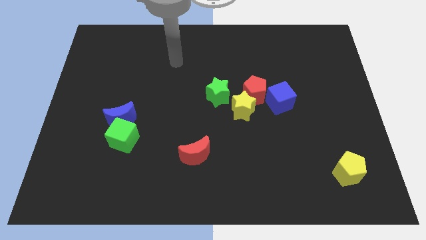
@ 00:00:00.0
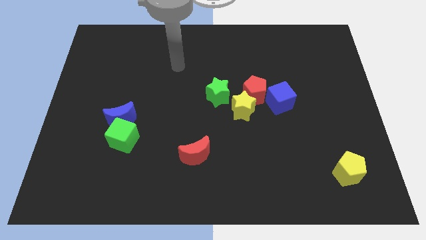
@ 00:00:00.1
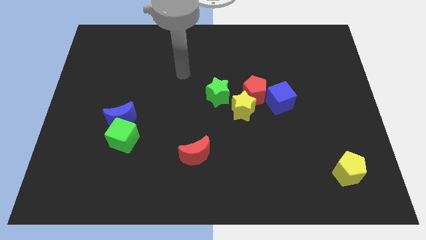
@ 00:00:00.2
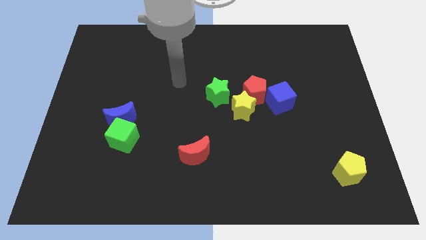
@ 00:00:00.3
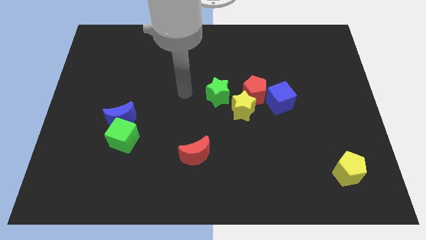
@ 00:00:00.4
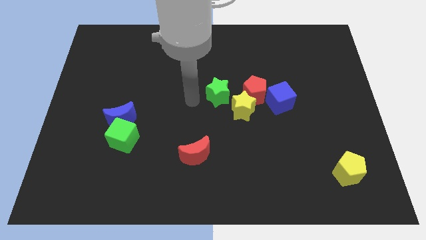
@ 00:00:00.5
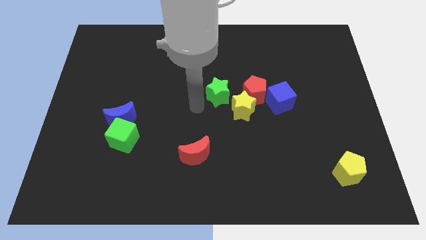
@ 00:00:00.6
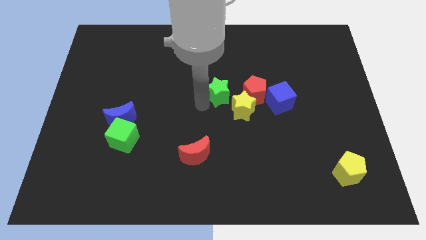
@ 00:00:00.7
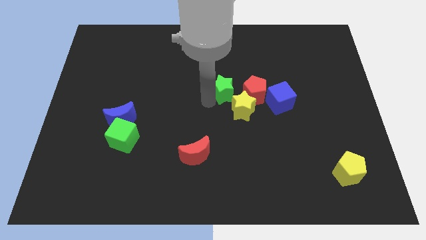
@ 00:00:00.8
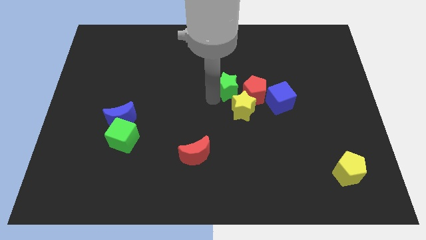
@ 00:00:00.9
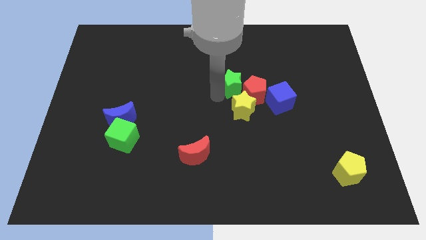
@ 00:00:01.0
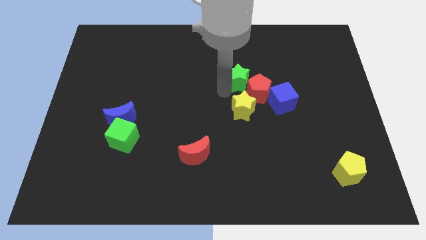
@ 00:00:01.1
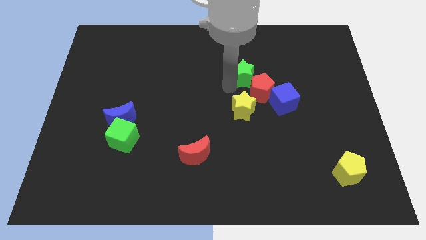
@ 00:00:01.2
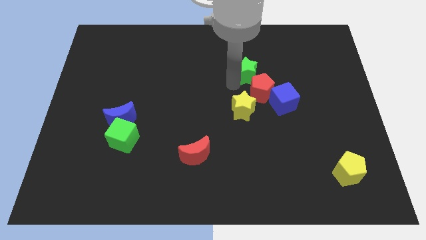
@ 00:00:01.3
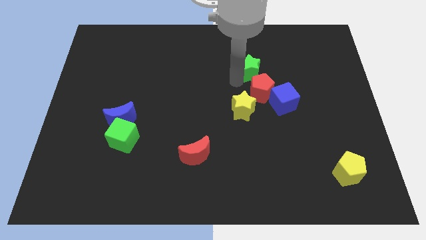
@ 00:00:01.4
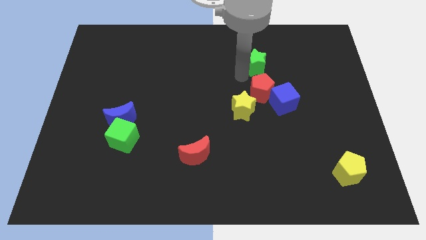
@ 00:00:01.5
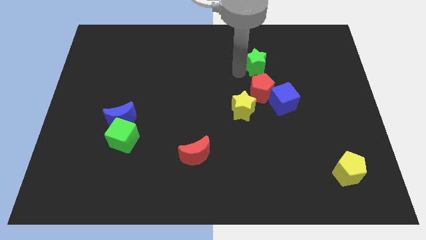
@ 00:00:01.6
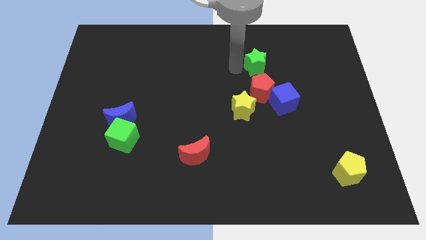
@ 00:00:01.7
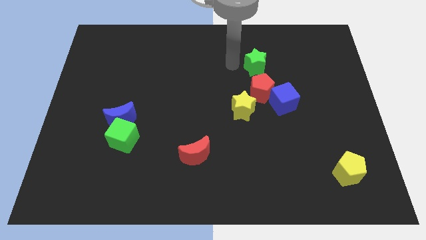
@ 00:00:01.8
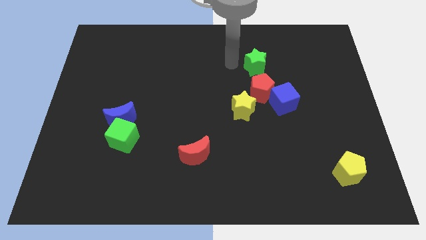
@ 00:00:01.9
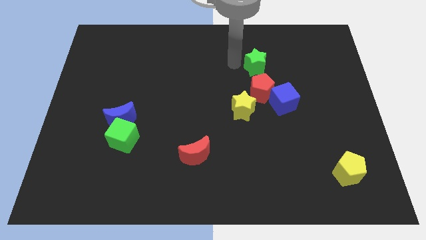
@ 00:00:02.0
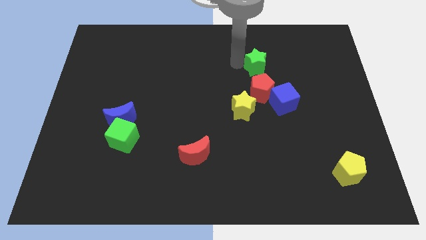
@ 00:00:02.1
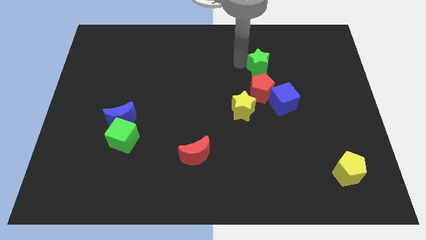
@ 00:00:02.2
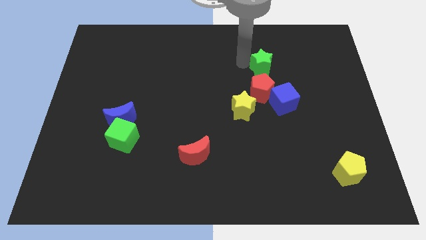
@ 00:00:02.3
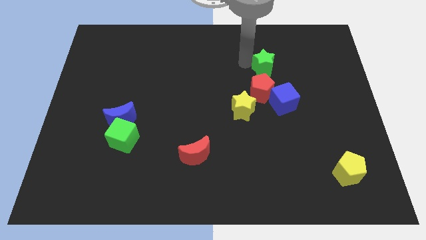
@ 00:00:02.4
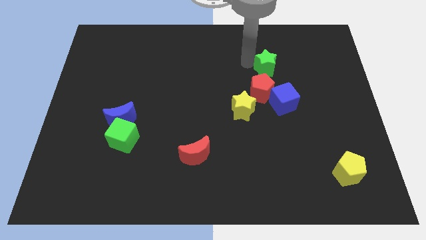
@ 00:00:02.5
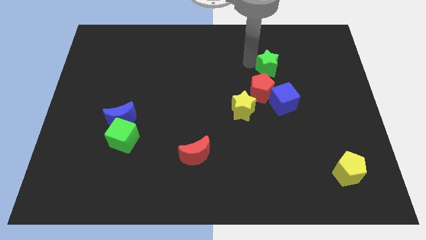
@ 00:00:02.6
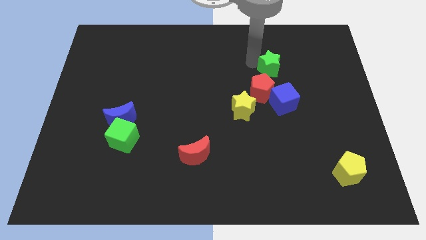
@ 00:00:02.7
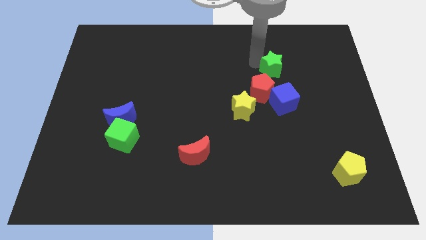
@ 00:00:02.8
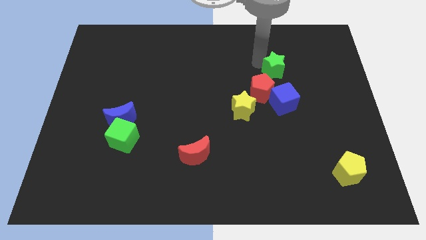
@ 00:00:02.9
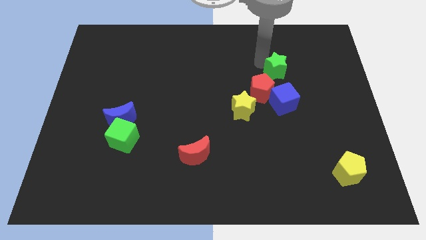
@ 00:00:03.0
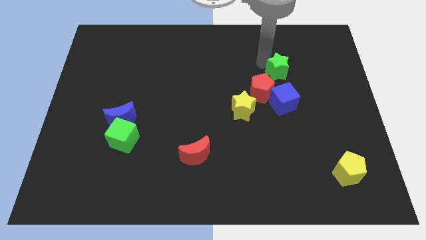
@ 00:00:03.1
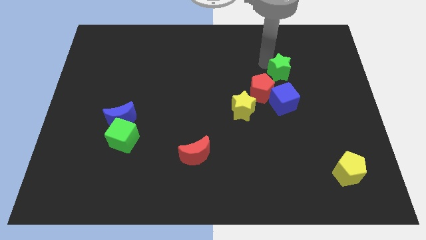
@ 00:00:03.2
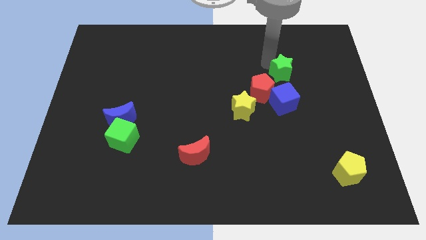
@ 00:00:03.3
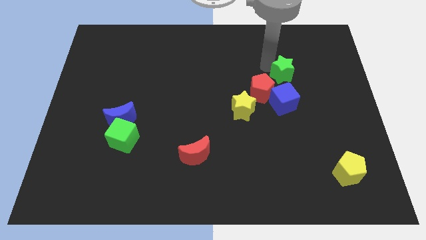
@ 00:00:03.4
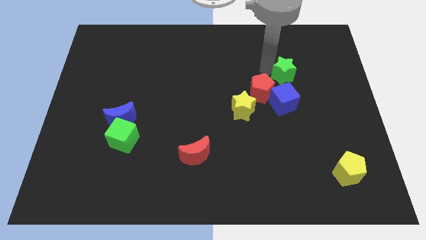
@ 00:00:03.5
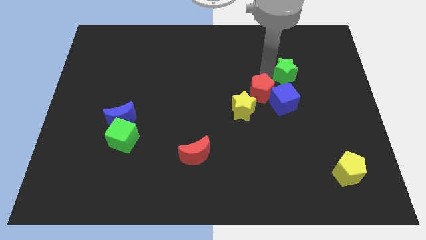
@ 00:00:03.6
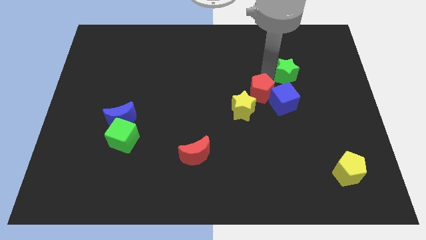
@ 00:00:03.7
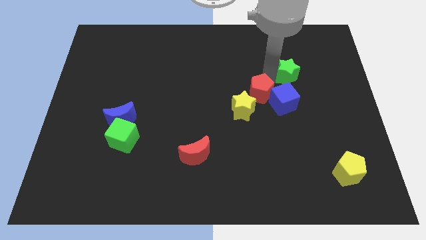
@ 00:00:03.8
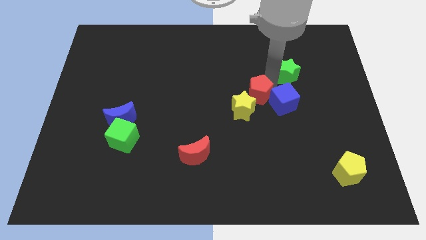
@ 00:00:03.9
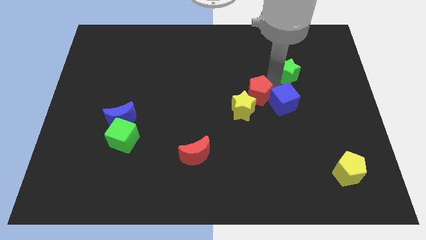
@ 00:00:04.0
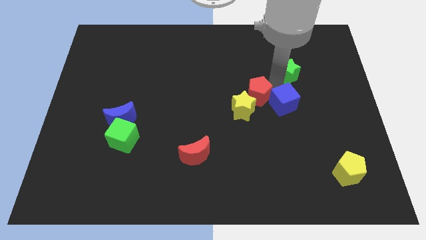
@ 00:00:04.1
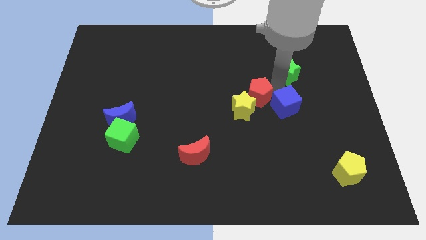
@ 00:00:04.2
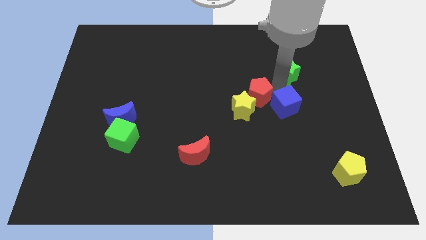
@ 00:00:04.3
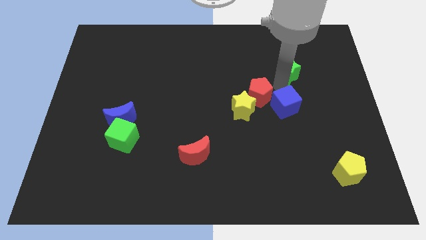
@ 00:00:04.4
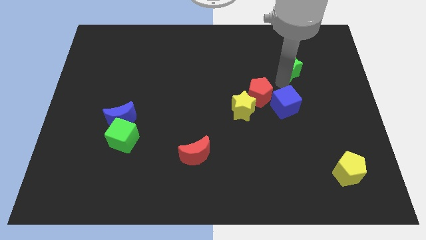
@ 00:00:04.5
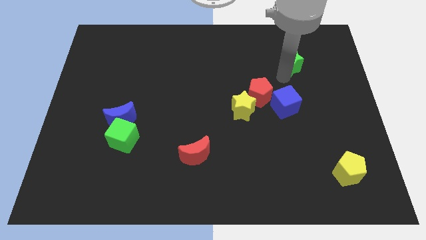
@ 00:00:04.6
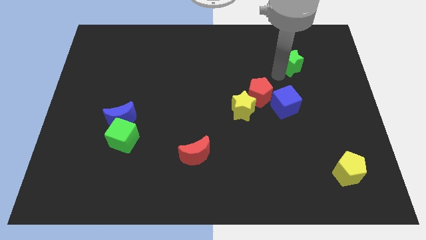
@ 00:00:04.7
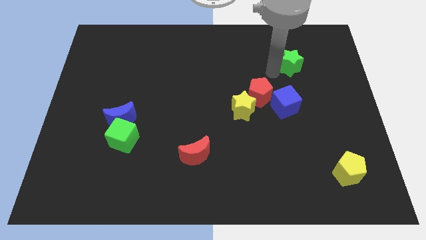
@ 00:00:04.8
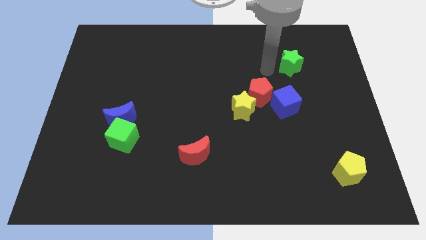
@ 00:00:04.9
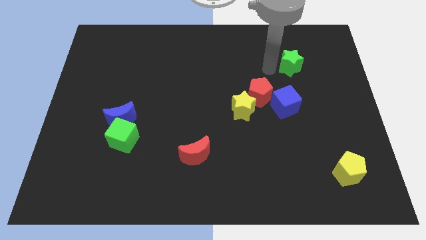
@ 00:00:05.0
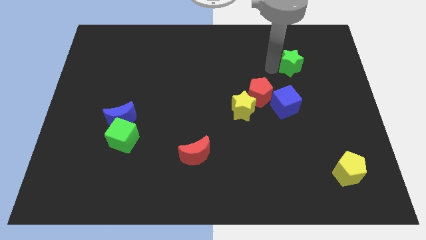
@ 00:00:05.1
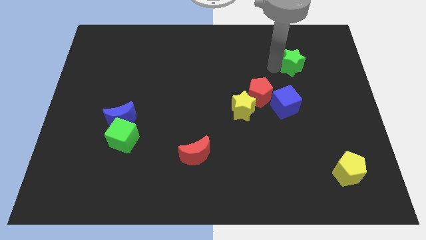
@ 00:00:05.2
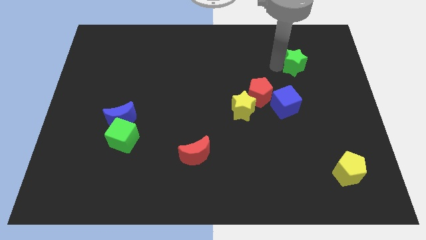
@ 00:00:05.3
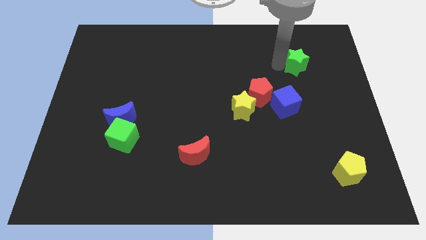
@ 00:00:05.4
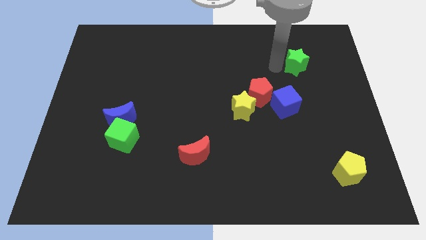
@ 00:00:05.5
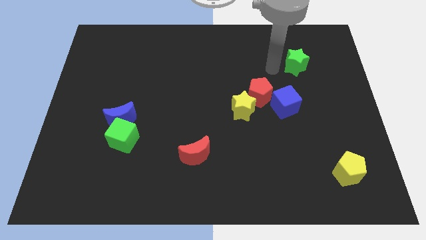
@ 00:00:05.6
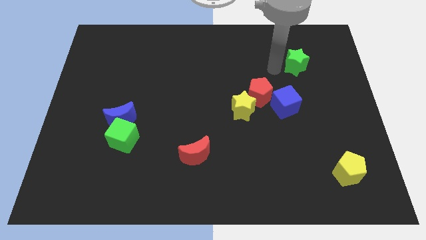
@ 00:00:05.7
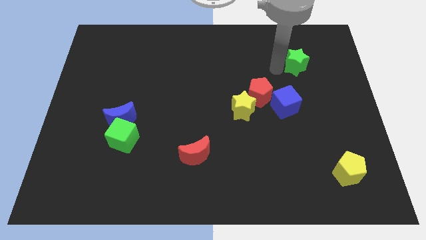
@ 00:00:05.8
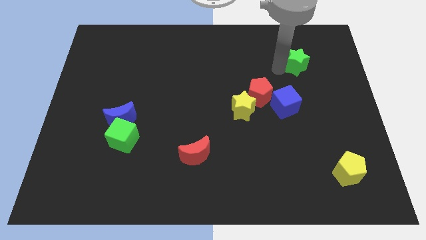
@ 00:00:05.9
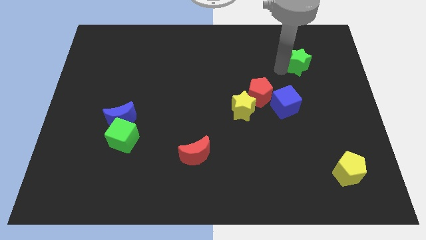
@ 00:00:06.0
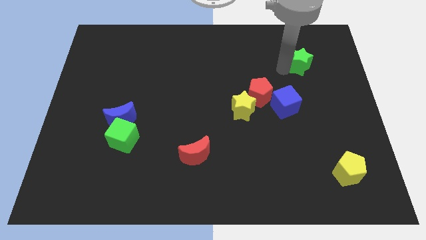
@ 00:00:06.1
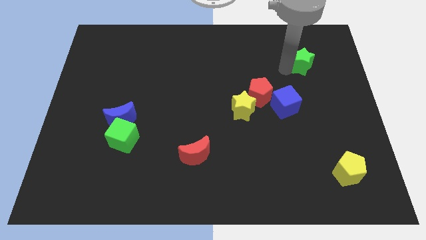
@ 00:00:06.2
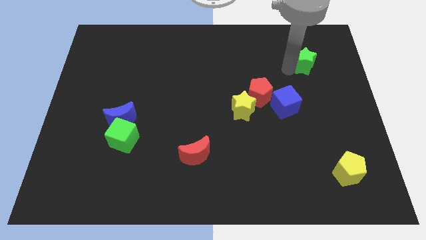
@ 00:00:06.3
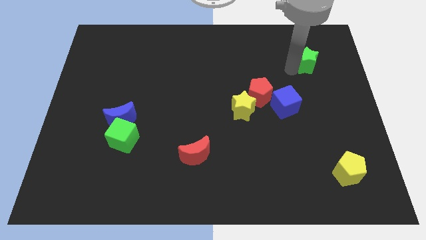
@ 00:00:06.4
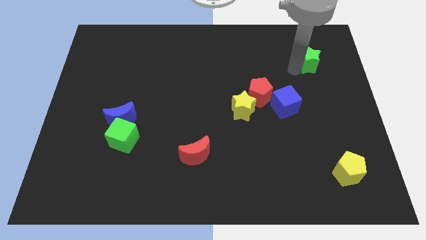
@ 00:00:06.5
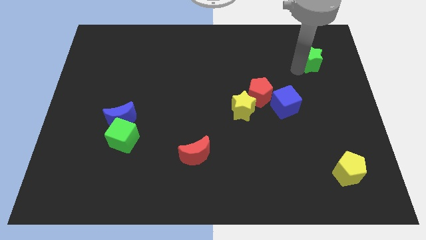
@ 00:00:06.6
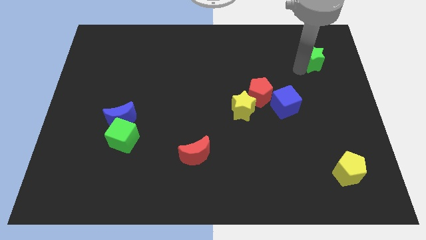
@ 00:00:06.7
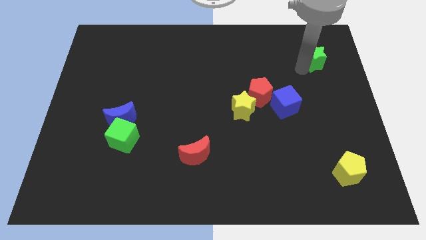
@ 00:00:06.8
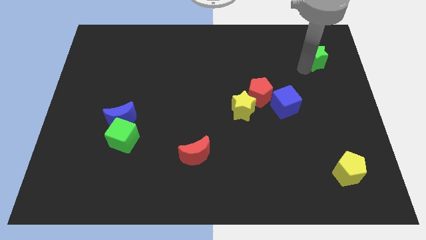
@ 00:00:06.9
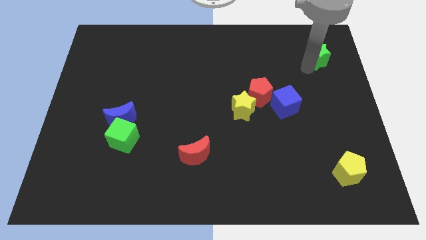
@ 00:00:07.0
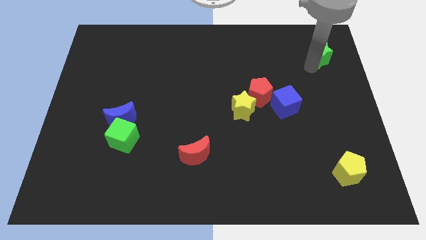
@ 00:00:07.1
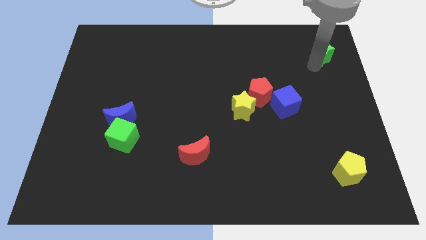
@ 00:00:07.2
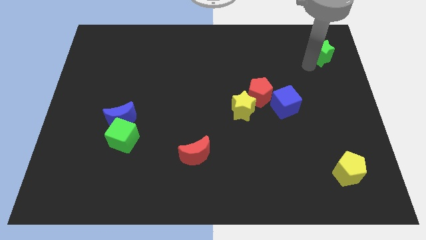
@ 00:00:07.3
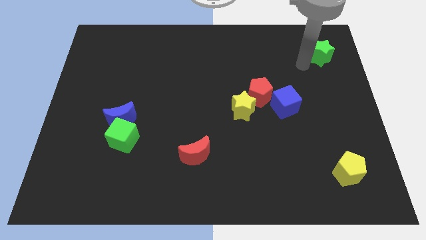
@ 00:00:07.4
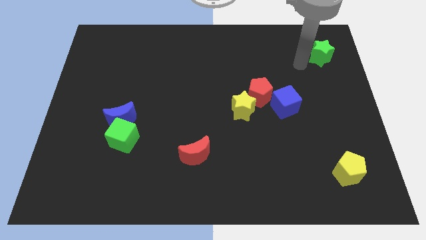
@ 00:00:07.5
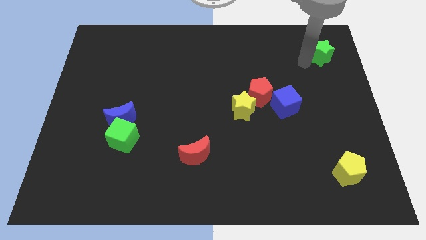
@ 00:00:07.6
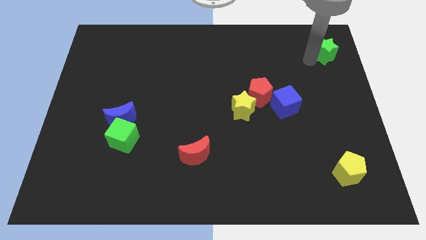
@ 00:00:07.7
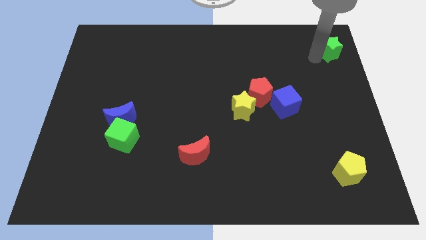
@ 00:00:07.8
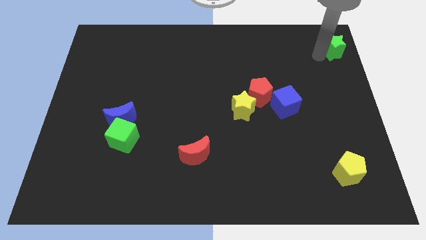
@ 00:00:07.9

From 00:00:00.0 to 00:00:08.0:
move the green star to the top right
